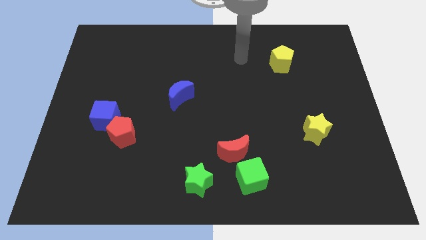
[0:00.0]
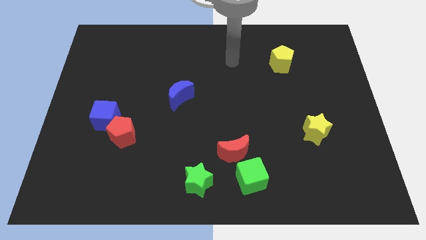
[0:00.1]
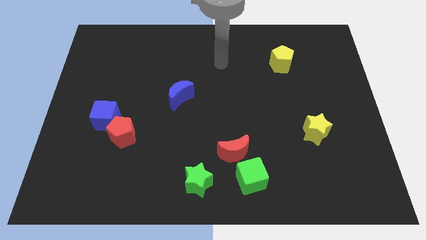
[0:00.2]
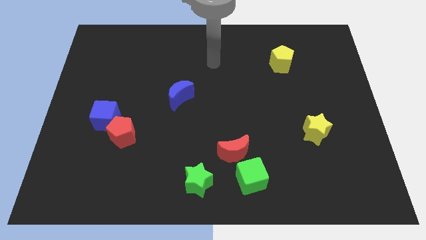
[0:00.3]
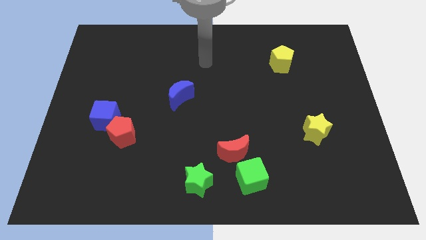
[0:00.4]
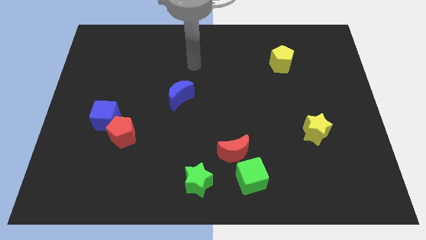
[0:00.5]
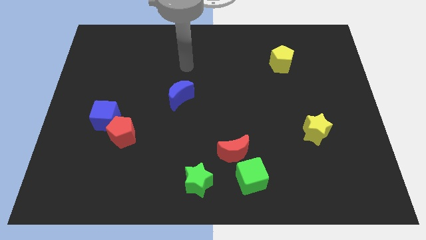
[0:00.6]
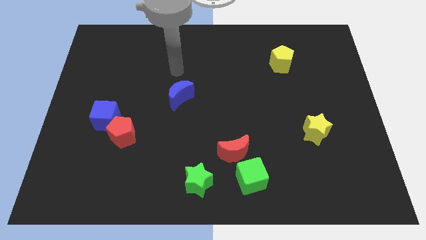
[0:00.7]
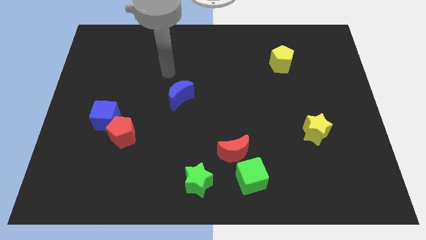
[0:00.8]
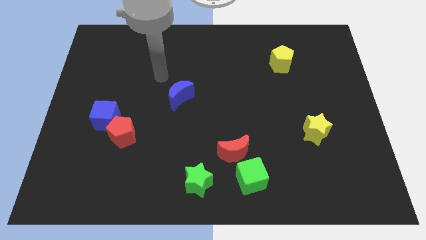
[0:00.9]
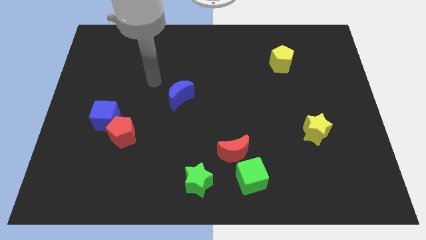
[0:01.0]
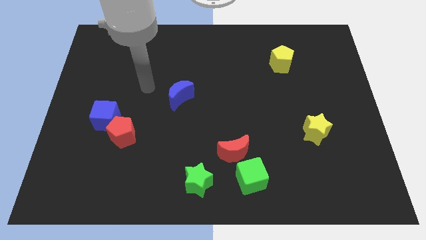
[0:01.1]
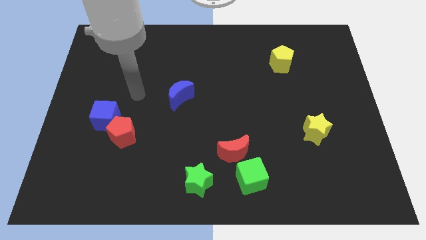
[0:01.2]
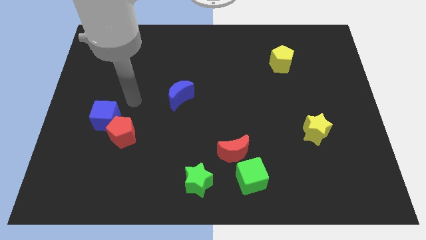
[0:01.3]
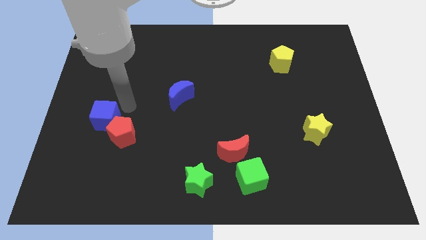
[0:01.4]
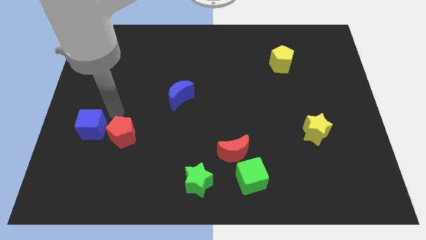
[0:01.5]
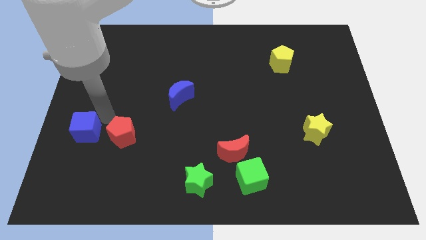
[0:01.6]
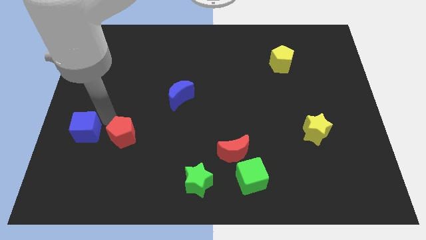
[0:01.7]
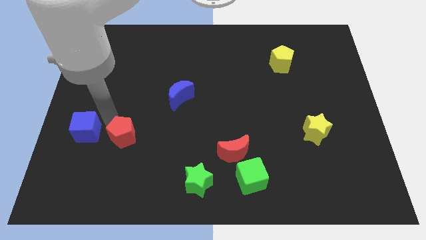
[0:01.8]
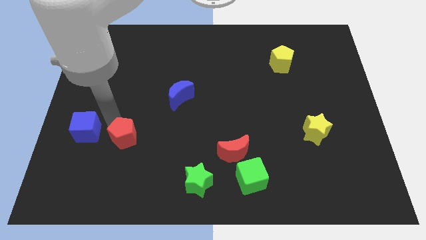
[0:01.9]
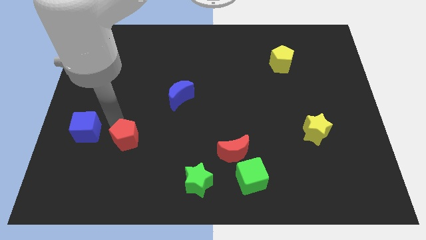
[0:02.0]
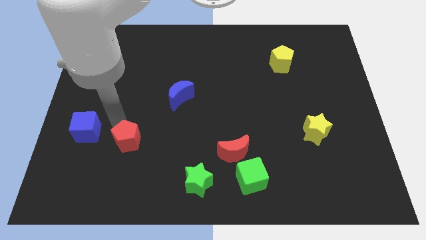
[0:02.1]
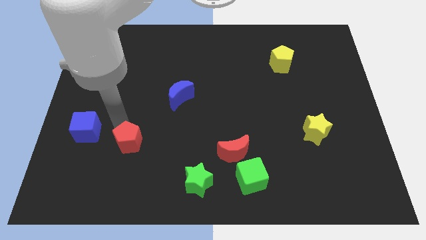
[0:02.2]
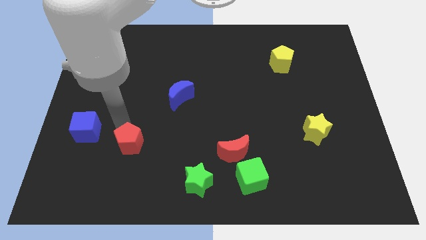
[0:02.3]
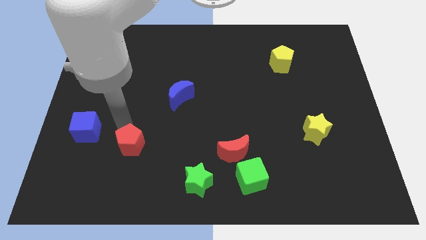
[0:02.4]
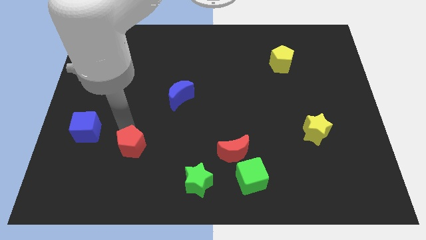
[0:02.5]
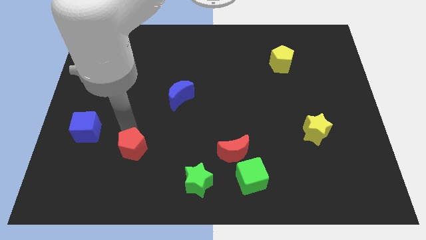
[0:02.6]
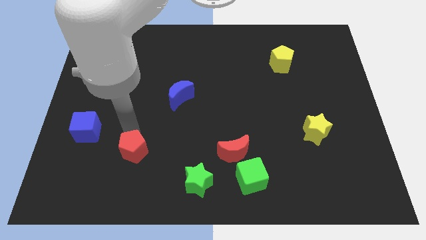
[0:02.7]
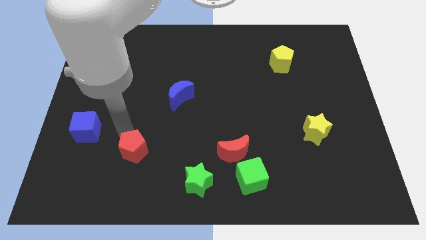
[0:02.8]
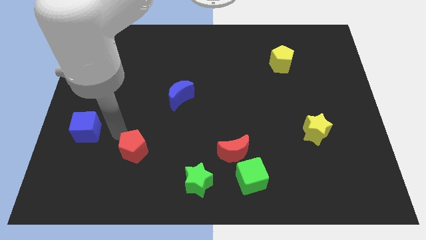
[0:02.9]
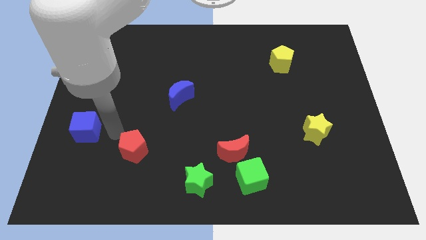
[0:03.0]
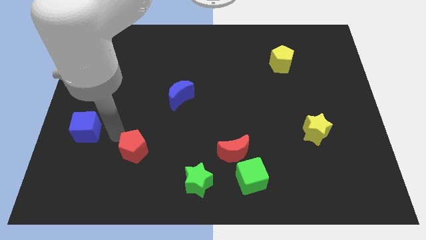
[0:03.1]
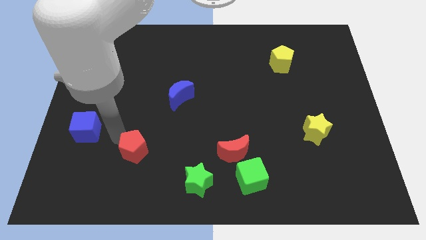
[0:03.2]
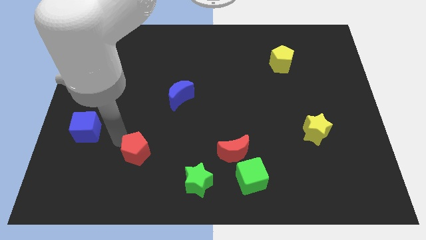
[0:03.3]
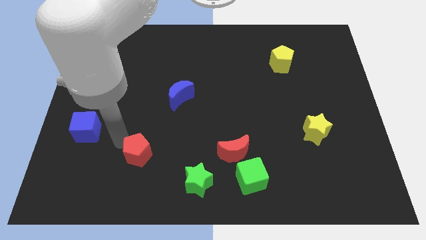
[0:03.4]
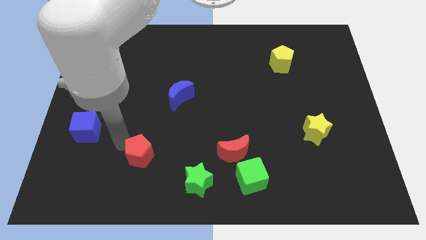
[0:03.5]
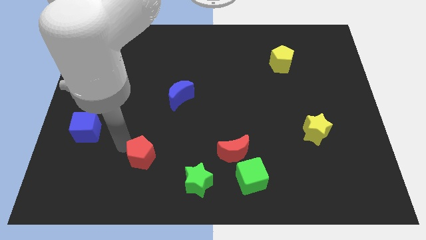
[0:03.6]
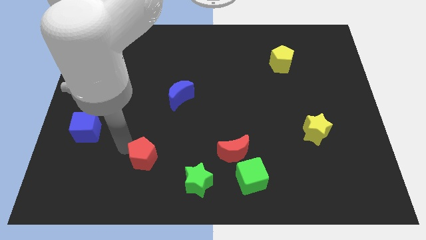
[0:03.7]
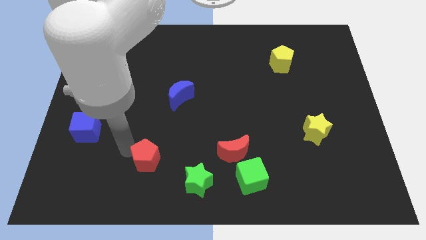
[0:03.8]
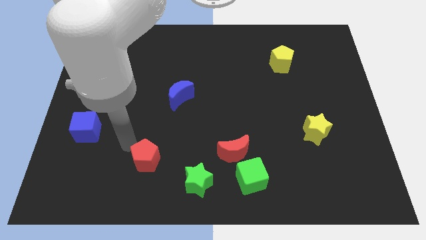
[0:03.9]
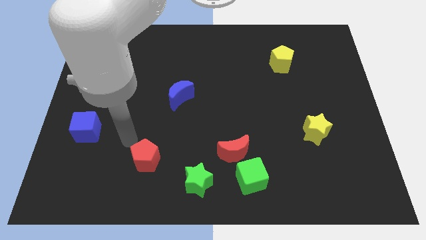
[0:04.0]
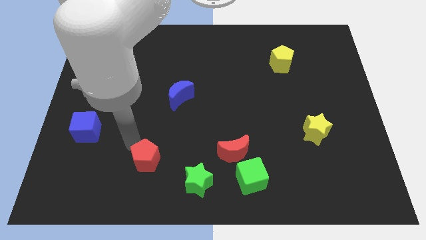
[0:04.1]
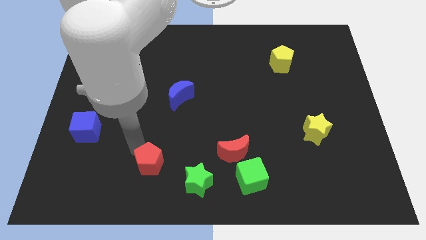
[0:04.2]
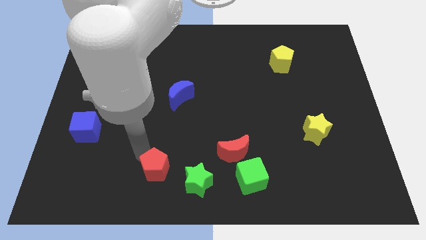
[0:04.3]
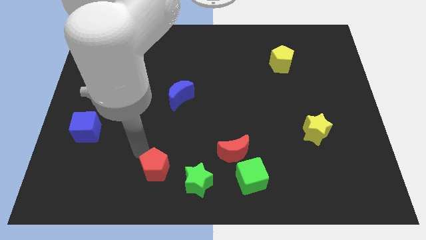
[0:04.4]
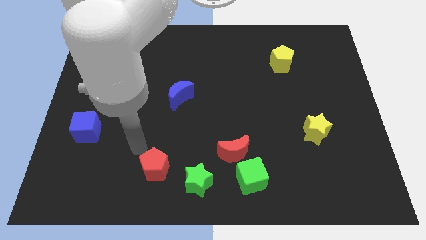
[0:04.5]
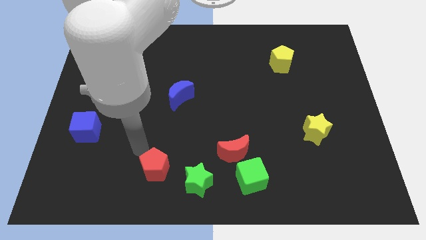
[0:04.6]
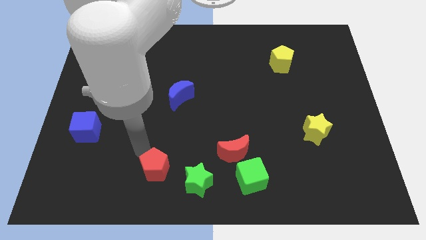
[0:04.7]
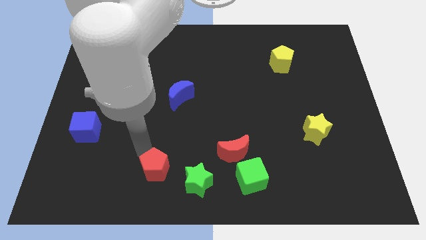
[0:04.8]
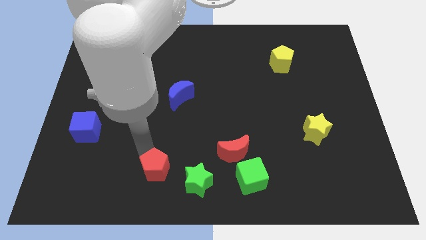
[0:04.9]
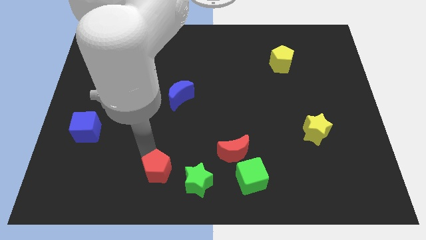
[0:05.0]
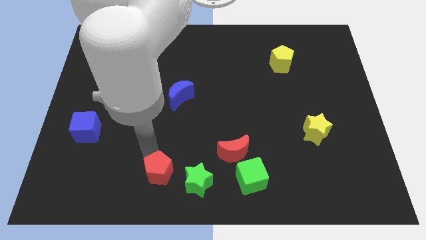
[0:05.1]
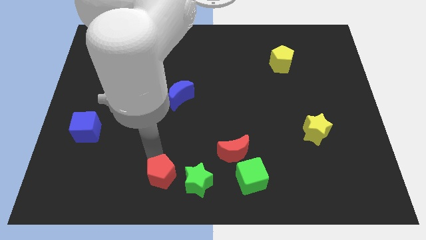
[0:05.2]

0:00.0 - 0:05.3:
put the red pentagon to the bottom side

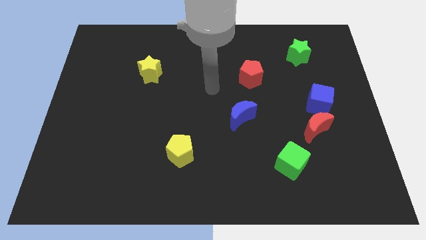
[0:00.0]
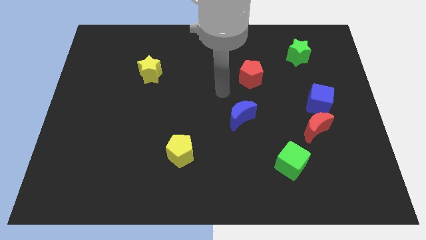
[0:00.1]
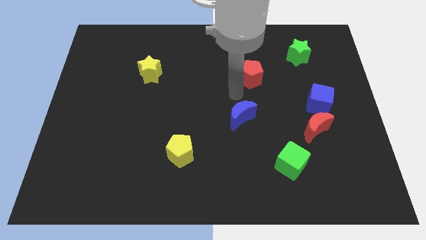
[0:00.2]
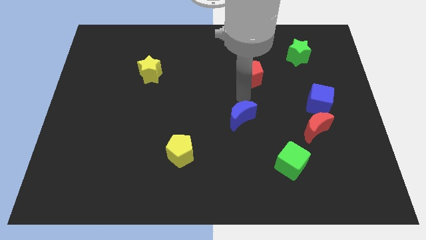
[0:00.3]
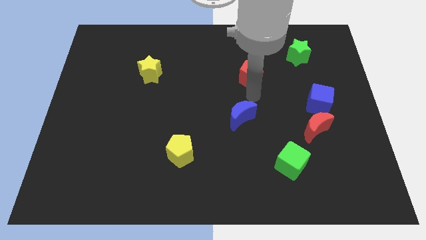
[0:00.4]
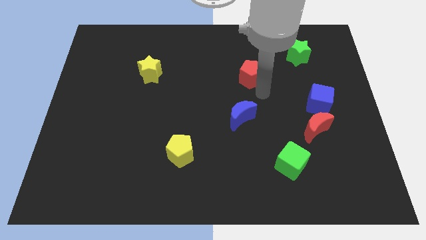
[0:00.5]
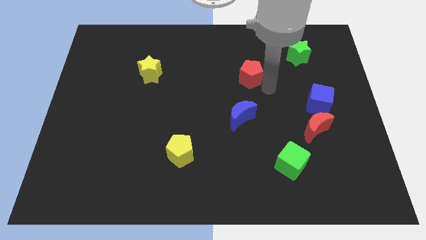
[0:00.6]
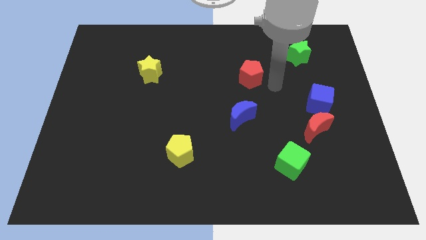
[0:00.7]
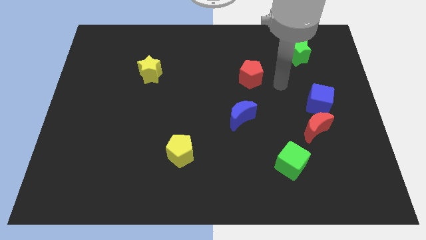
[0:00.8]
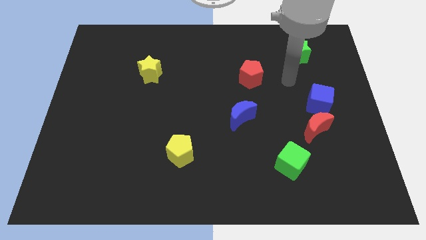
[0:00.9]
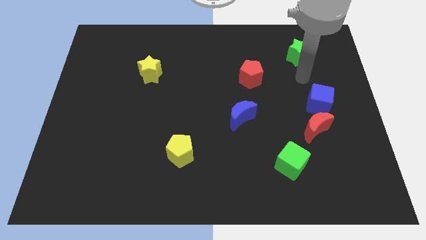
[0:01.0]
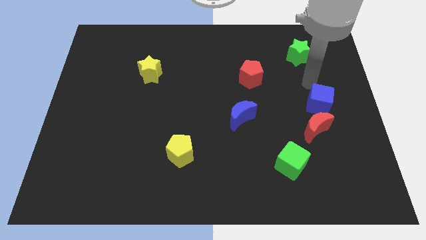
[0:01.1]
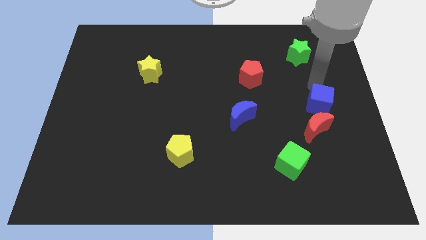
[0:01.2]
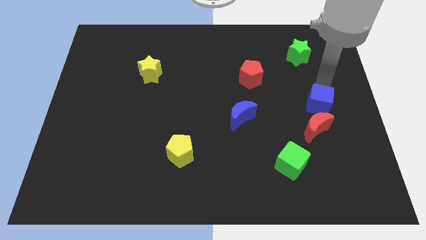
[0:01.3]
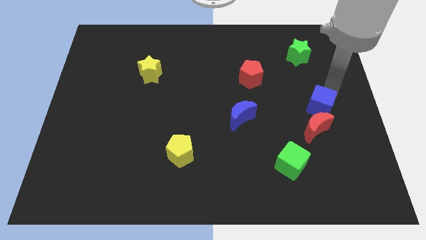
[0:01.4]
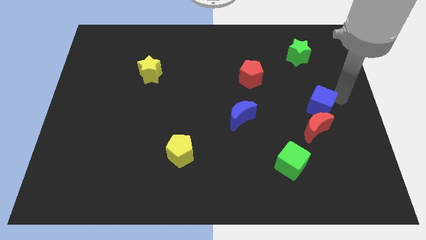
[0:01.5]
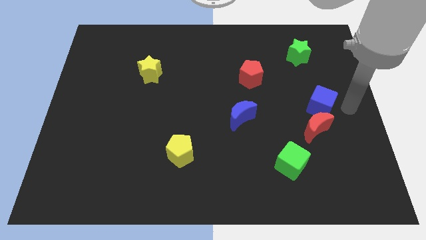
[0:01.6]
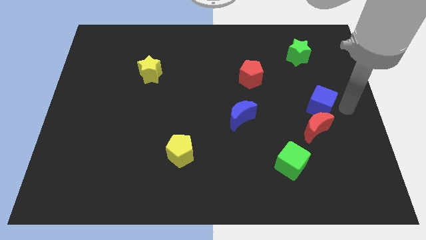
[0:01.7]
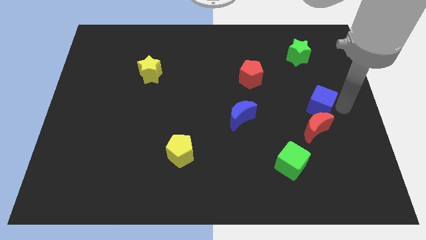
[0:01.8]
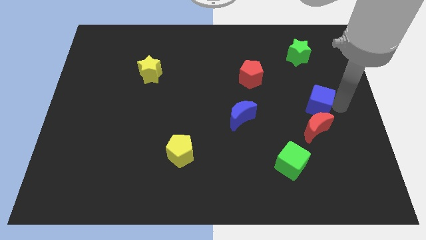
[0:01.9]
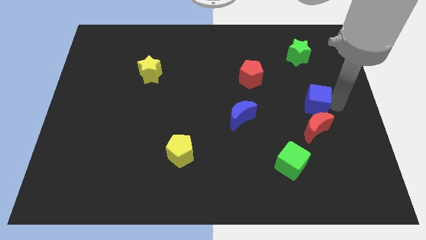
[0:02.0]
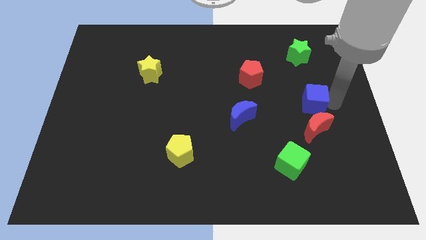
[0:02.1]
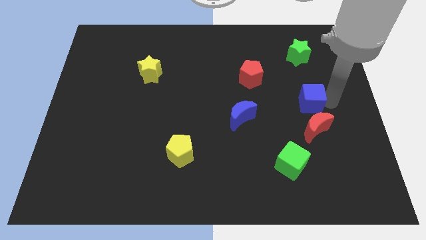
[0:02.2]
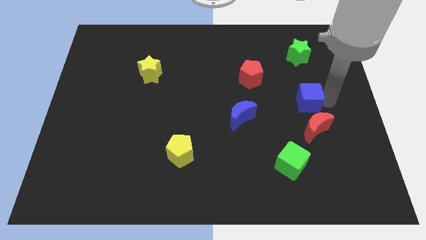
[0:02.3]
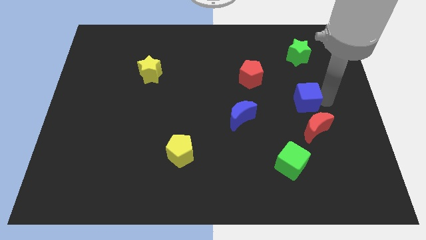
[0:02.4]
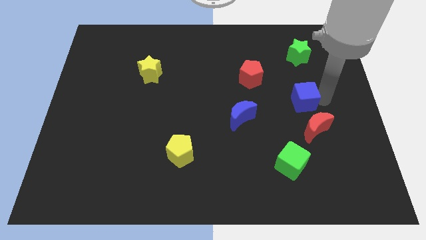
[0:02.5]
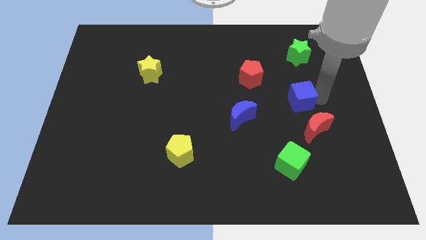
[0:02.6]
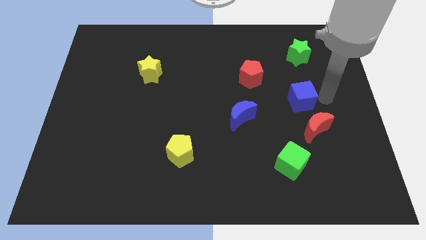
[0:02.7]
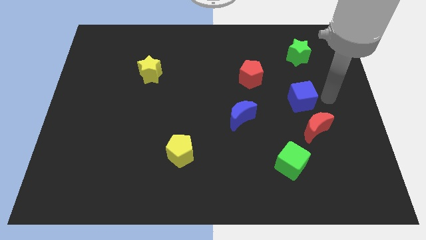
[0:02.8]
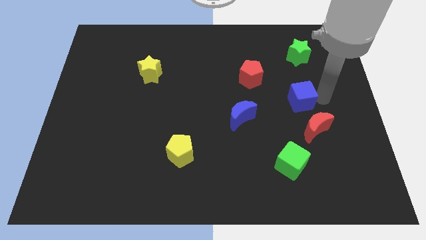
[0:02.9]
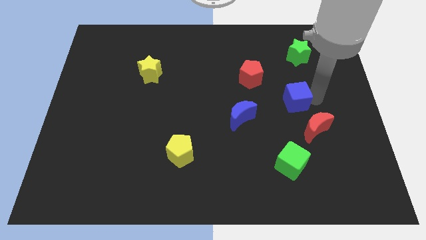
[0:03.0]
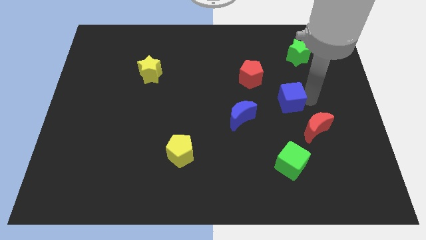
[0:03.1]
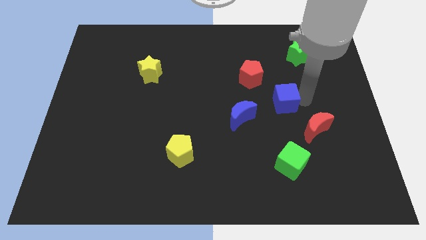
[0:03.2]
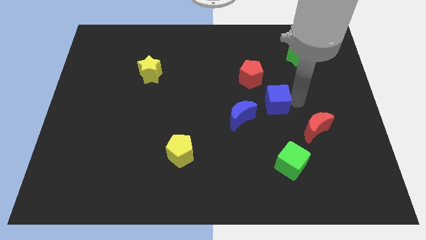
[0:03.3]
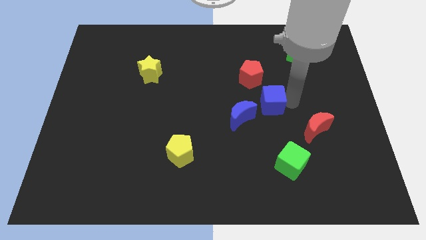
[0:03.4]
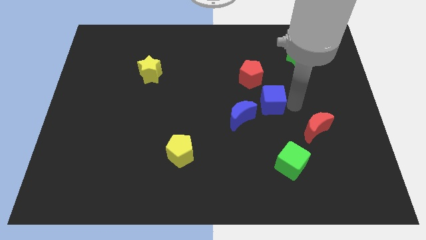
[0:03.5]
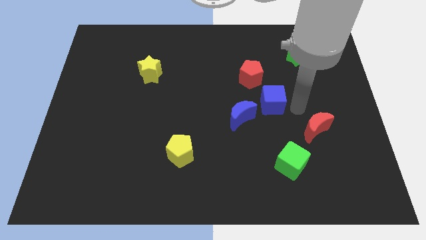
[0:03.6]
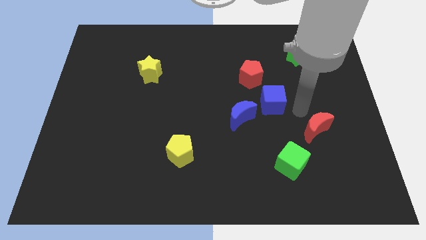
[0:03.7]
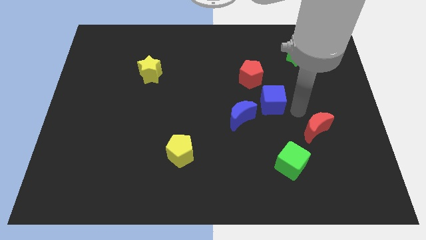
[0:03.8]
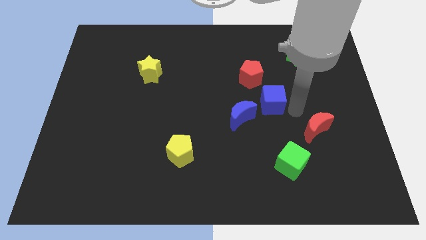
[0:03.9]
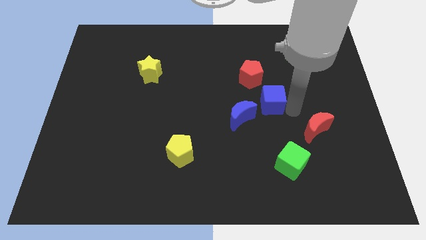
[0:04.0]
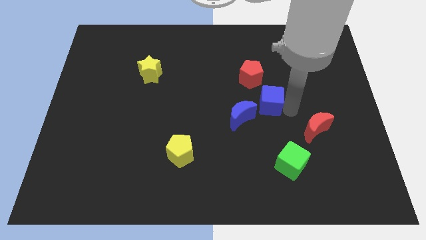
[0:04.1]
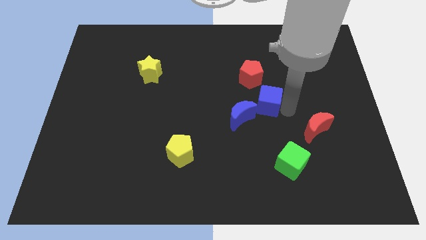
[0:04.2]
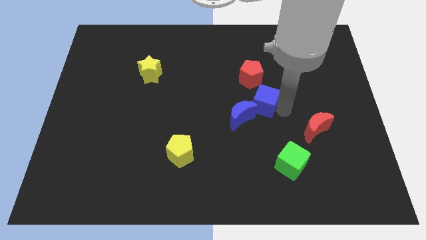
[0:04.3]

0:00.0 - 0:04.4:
move the blue cube to the center of the board
